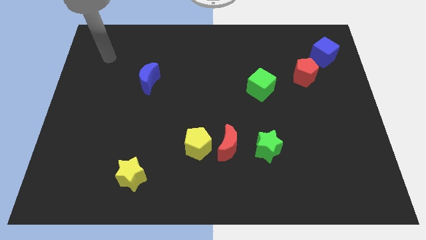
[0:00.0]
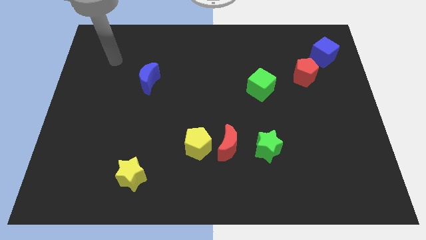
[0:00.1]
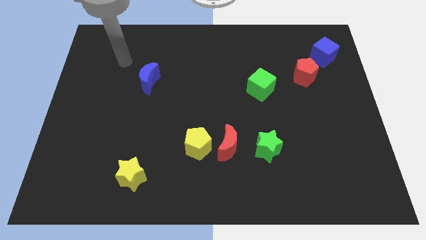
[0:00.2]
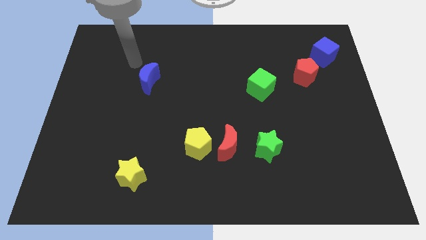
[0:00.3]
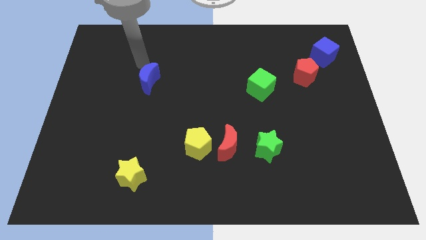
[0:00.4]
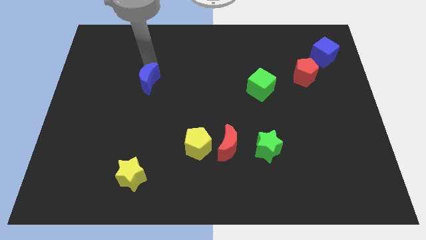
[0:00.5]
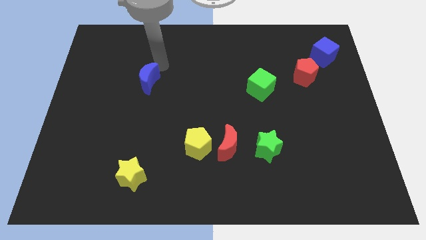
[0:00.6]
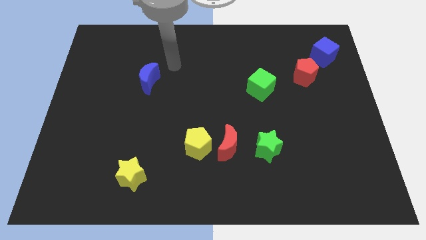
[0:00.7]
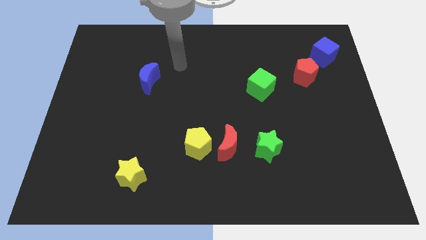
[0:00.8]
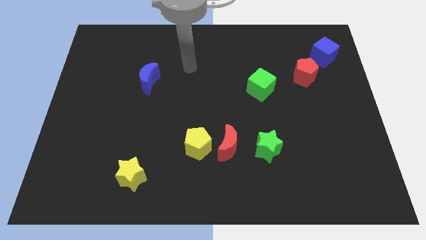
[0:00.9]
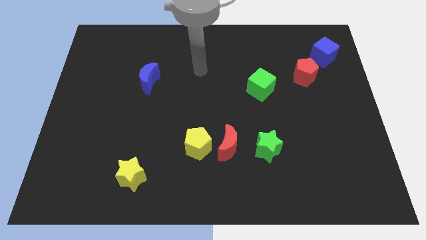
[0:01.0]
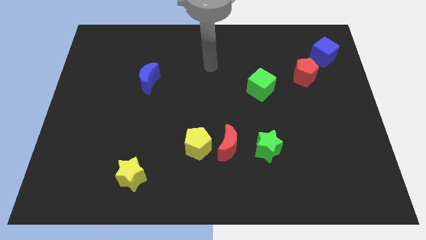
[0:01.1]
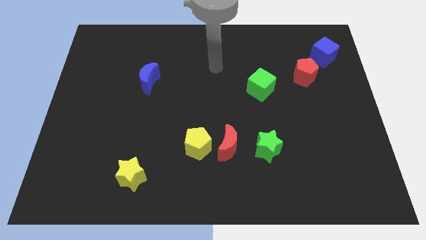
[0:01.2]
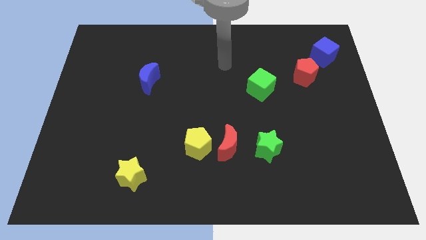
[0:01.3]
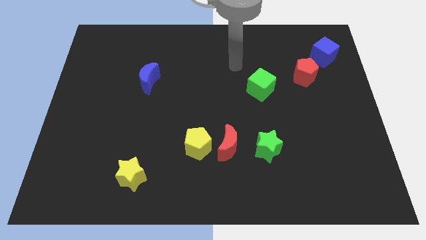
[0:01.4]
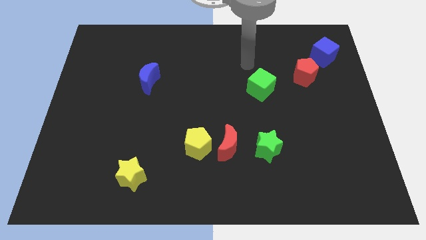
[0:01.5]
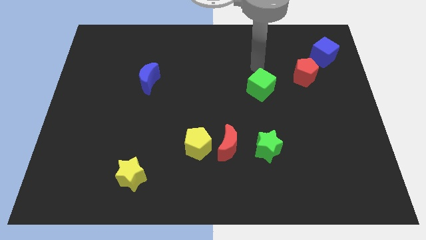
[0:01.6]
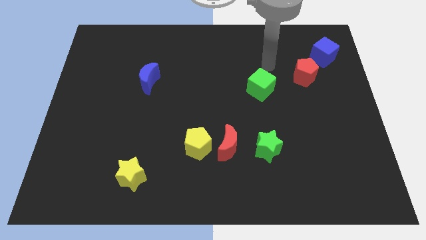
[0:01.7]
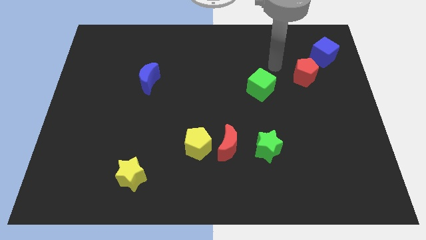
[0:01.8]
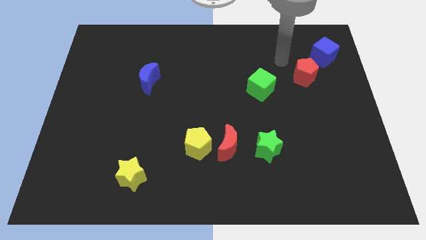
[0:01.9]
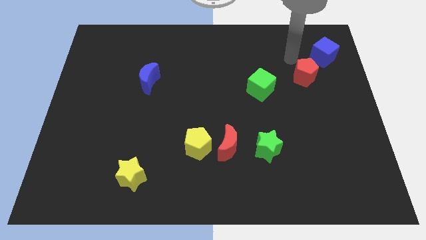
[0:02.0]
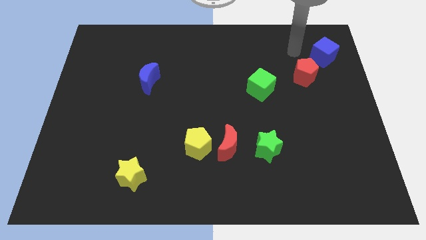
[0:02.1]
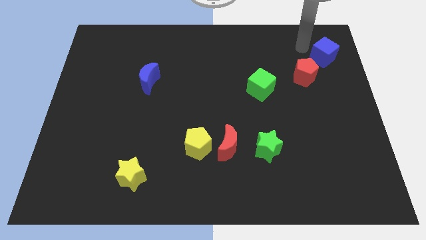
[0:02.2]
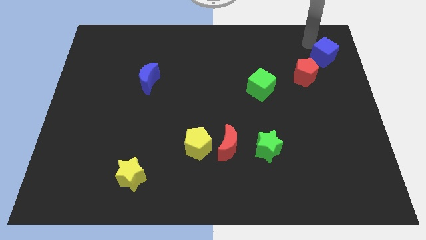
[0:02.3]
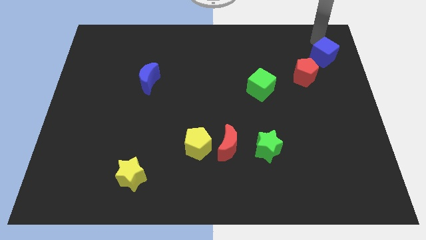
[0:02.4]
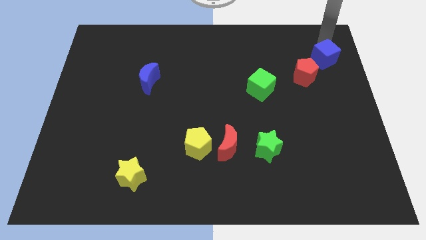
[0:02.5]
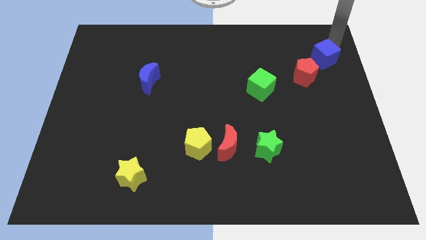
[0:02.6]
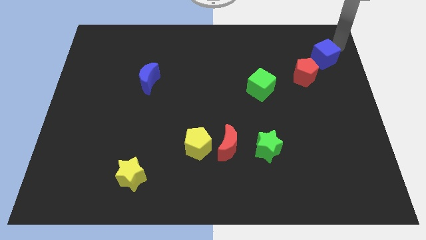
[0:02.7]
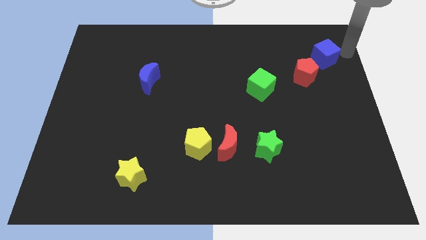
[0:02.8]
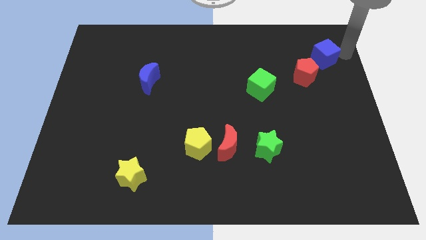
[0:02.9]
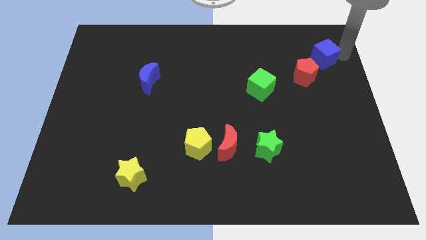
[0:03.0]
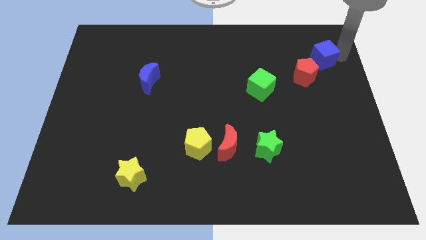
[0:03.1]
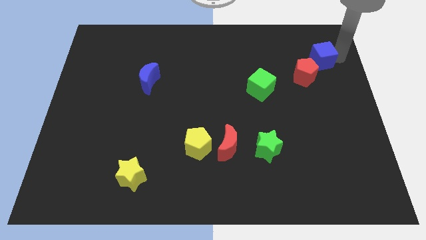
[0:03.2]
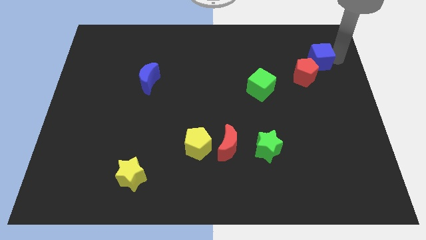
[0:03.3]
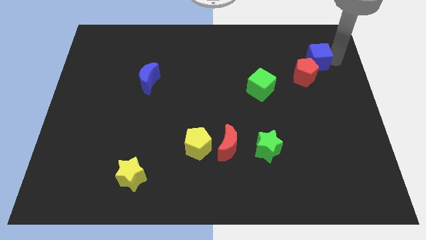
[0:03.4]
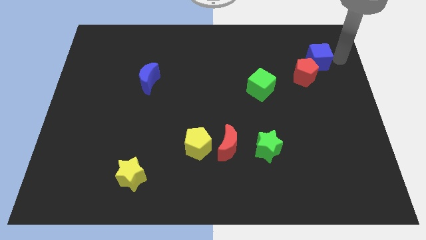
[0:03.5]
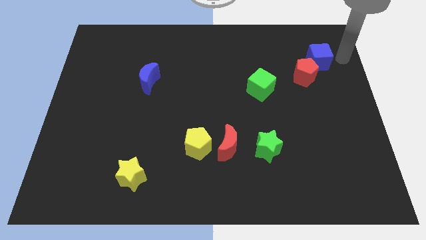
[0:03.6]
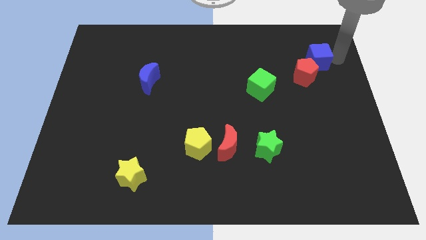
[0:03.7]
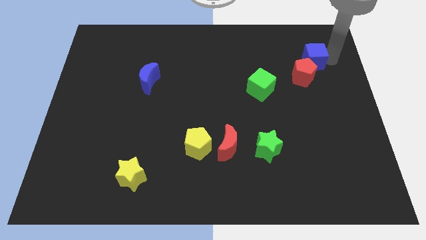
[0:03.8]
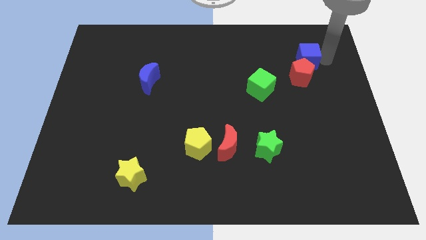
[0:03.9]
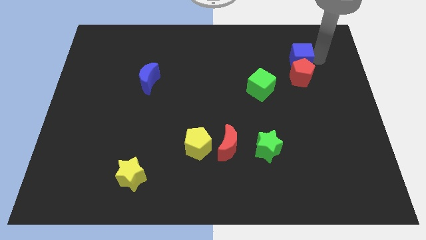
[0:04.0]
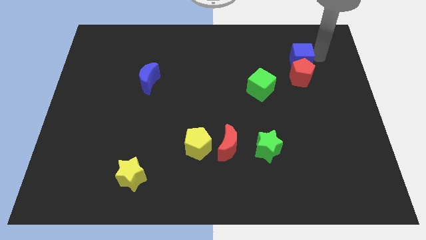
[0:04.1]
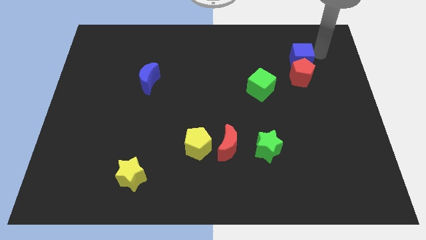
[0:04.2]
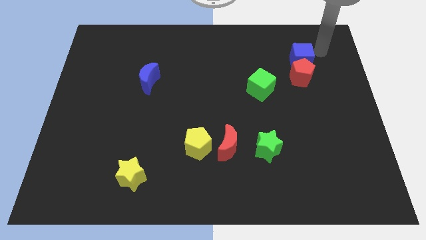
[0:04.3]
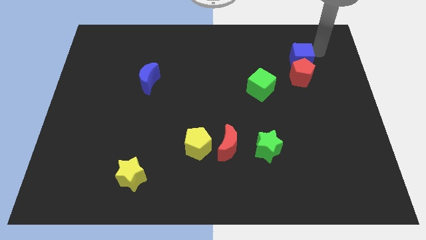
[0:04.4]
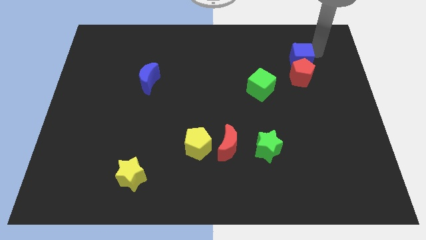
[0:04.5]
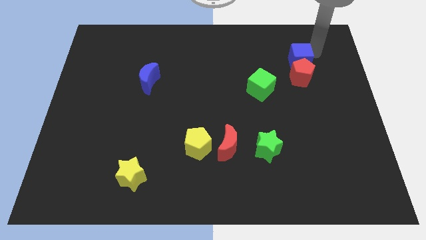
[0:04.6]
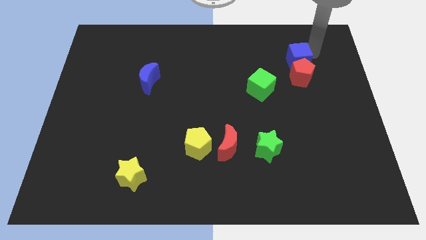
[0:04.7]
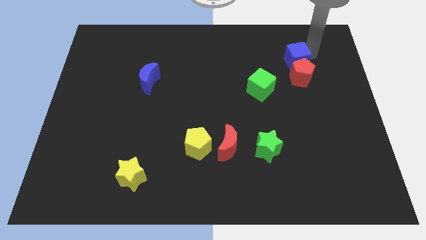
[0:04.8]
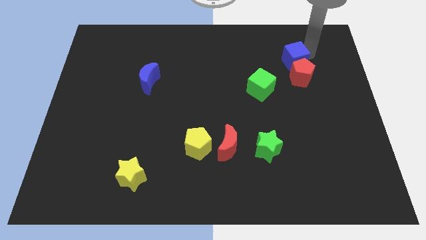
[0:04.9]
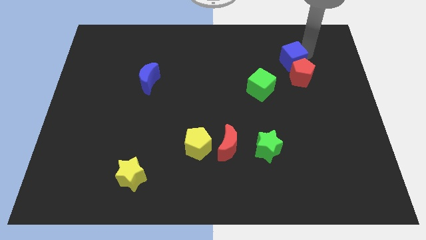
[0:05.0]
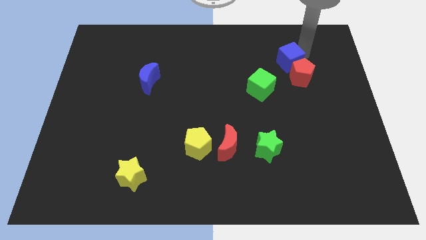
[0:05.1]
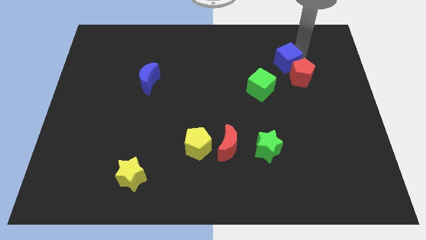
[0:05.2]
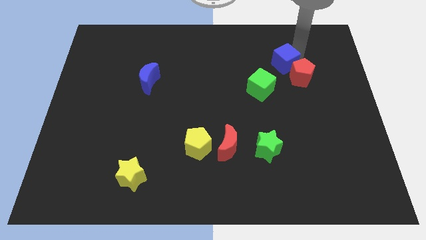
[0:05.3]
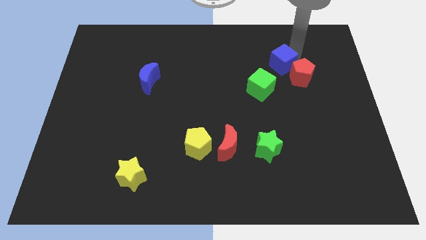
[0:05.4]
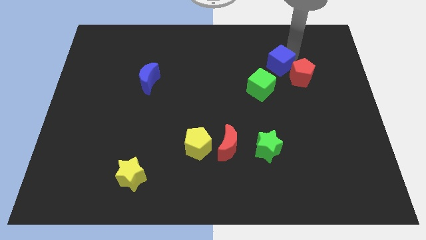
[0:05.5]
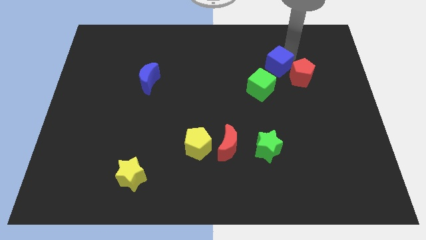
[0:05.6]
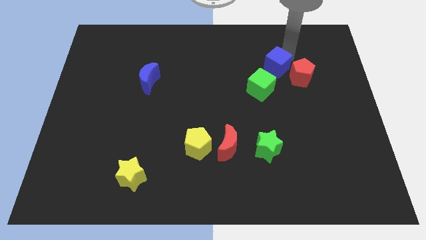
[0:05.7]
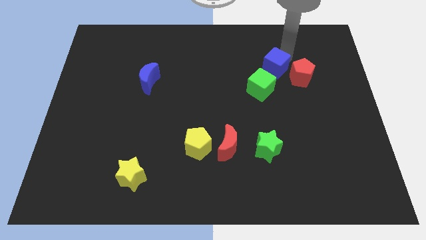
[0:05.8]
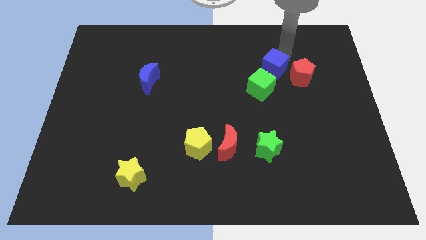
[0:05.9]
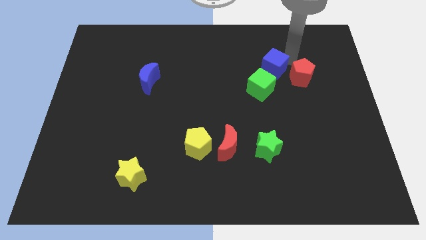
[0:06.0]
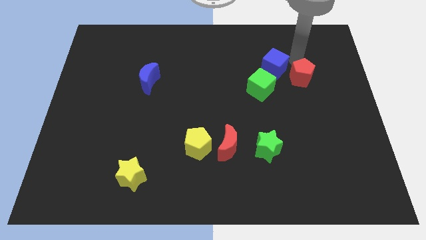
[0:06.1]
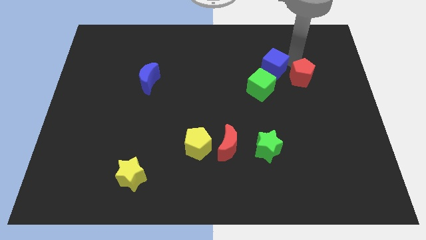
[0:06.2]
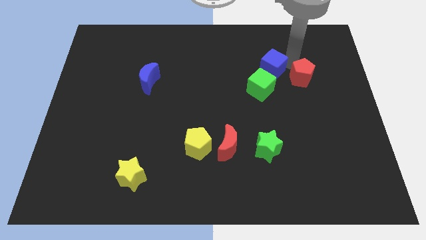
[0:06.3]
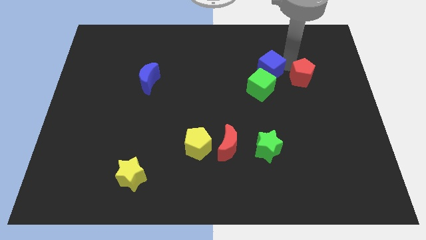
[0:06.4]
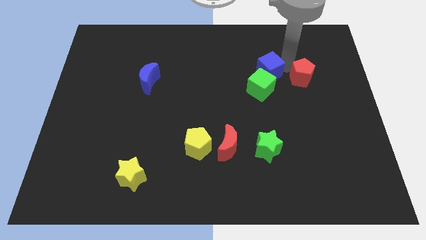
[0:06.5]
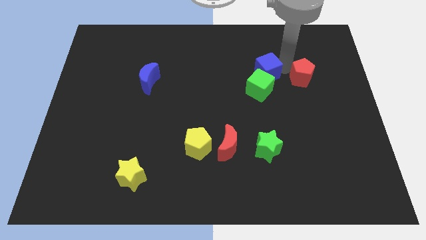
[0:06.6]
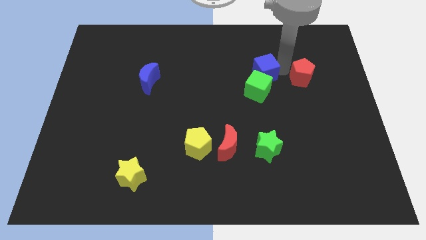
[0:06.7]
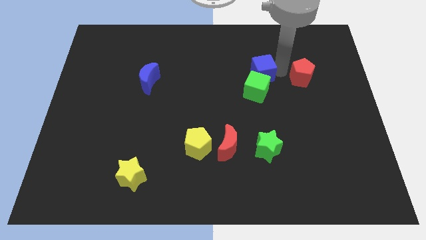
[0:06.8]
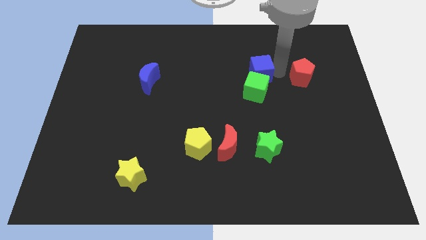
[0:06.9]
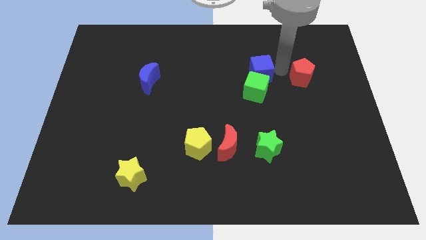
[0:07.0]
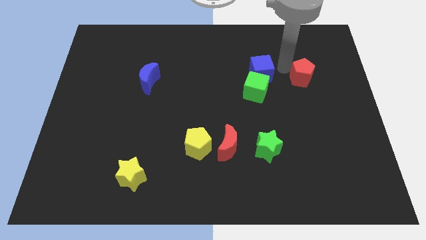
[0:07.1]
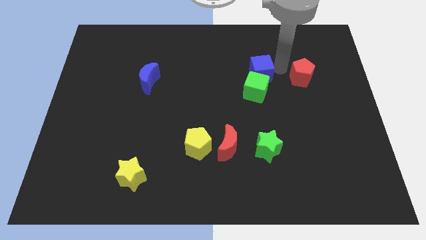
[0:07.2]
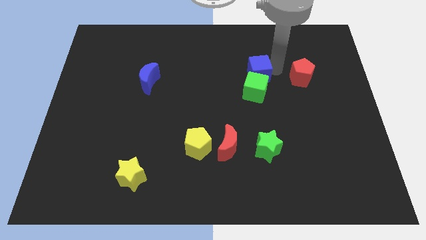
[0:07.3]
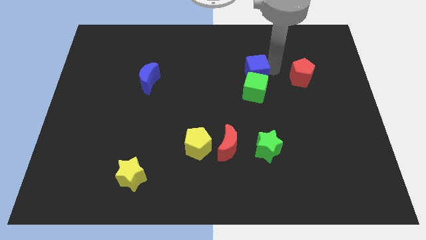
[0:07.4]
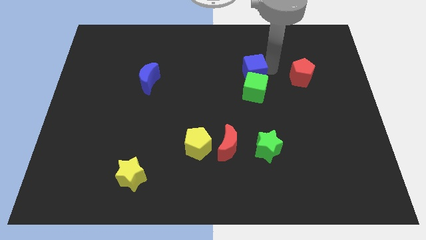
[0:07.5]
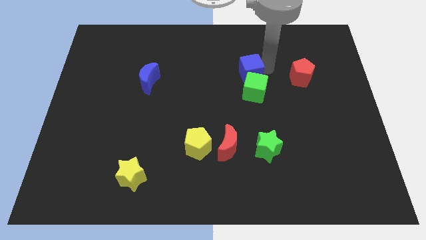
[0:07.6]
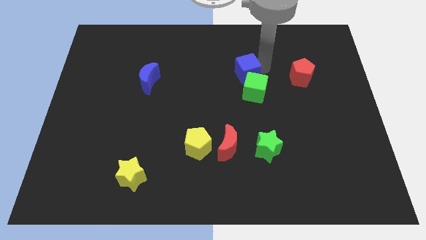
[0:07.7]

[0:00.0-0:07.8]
put the blue cube to the center
